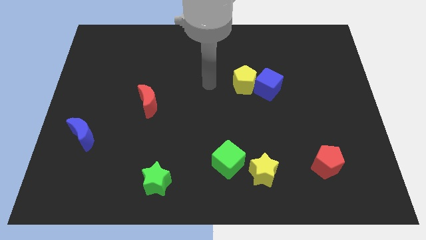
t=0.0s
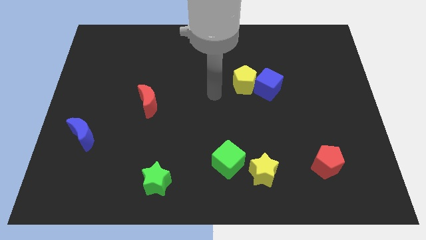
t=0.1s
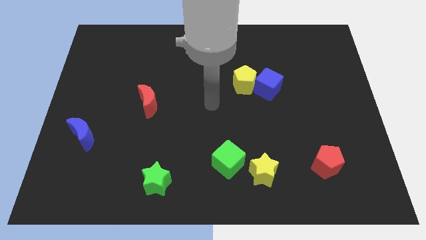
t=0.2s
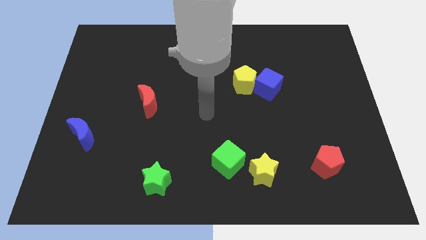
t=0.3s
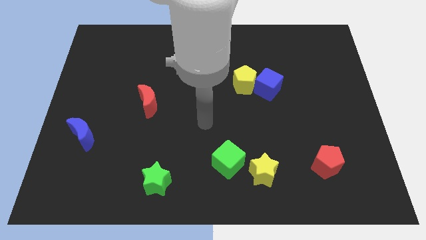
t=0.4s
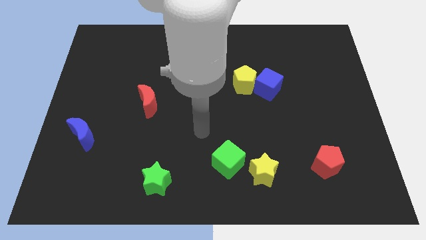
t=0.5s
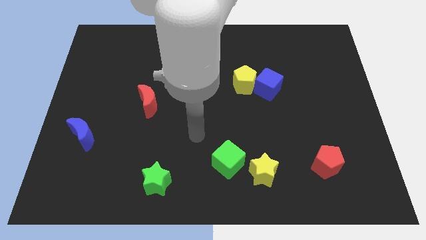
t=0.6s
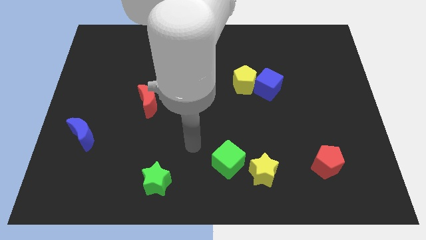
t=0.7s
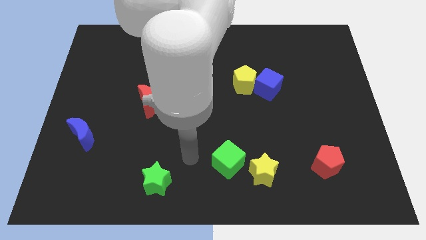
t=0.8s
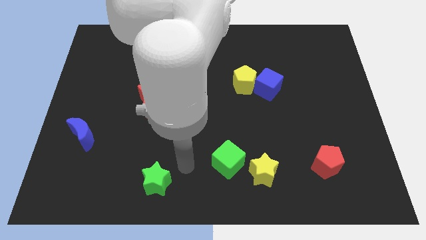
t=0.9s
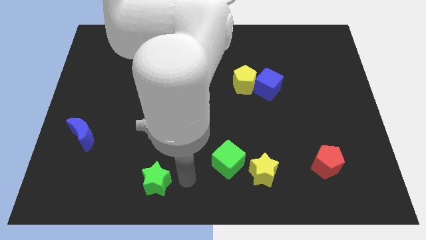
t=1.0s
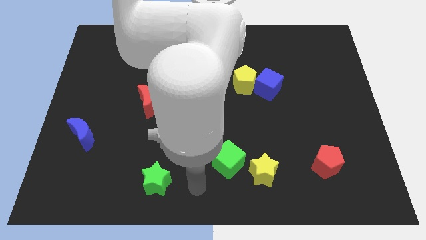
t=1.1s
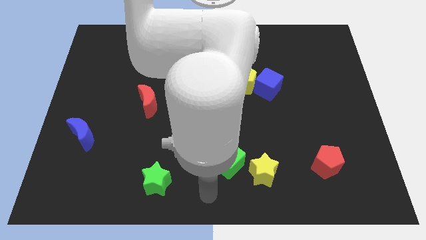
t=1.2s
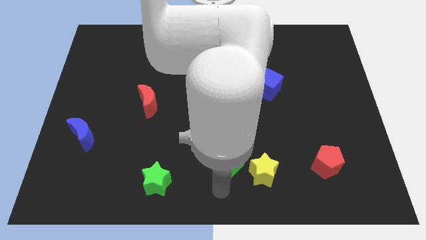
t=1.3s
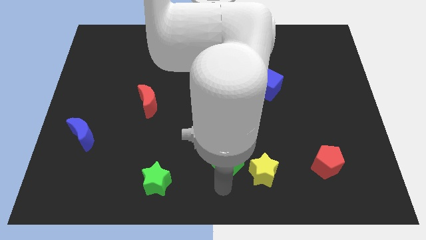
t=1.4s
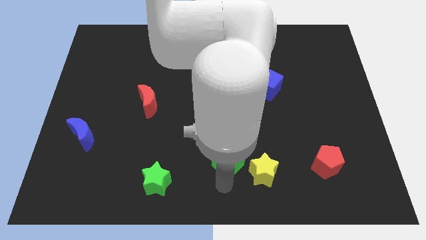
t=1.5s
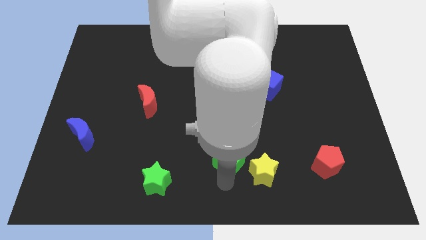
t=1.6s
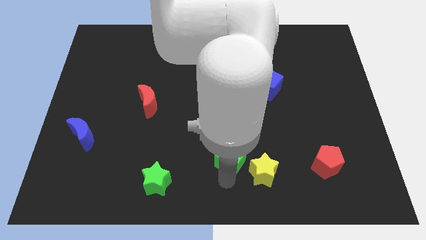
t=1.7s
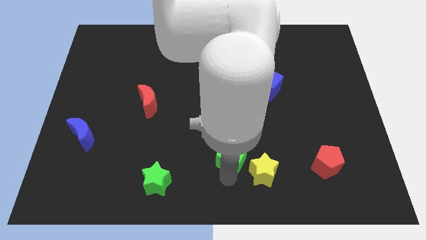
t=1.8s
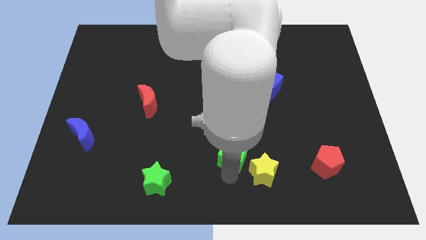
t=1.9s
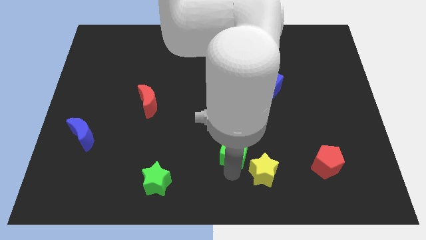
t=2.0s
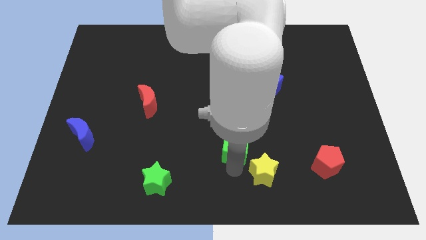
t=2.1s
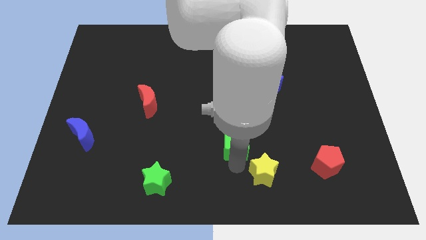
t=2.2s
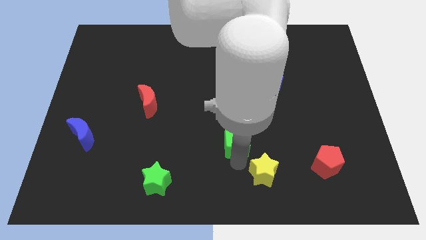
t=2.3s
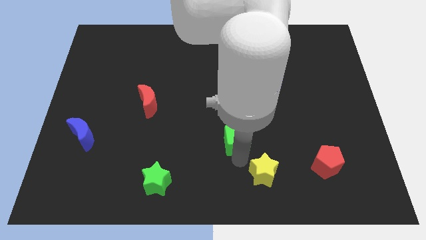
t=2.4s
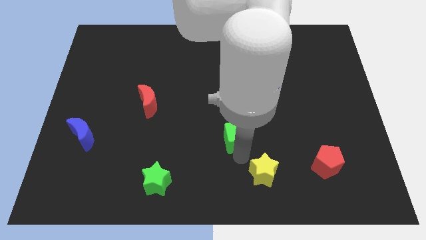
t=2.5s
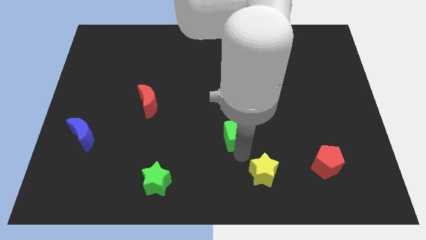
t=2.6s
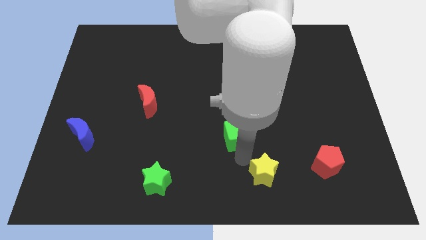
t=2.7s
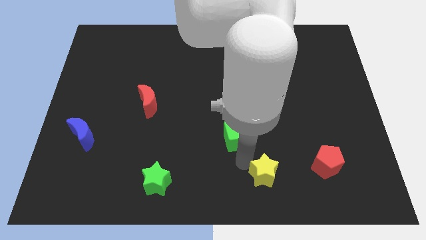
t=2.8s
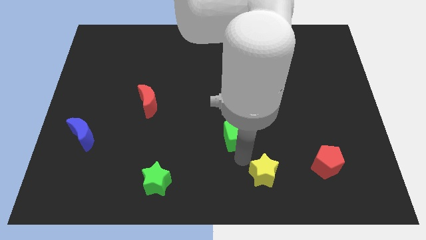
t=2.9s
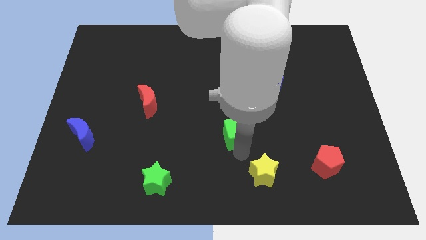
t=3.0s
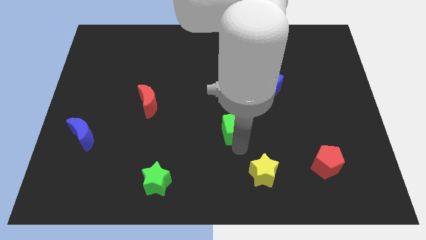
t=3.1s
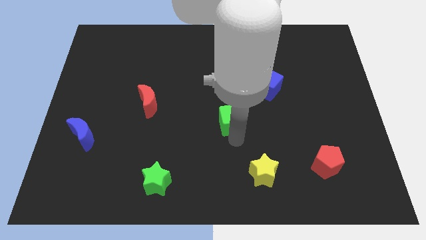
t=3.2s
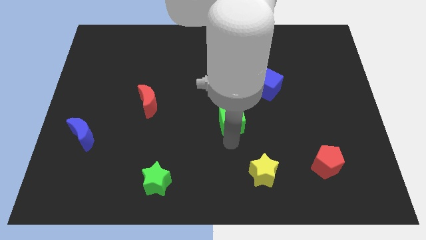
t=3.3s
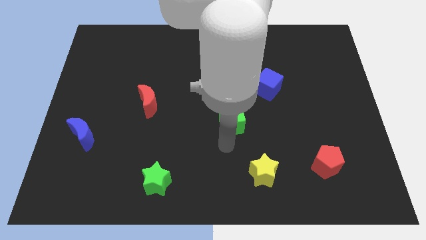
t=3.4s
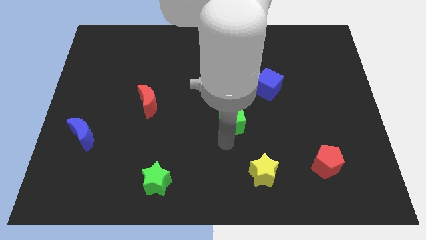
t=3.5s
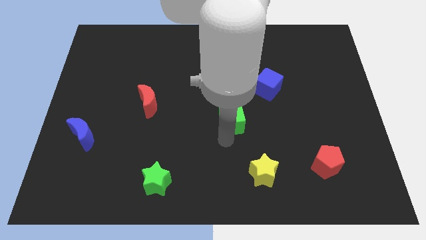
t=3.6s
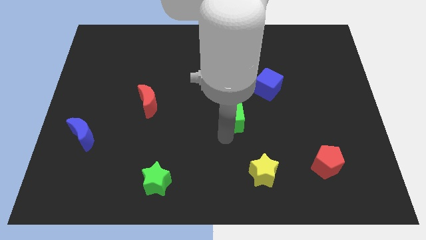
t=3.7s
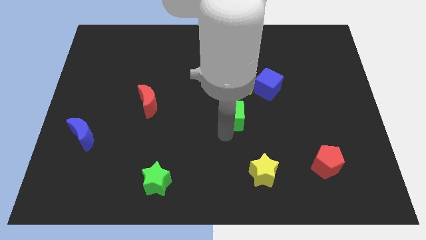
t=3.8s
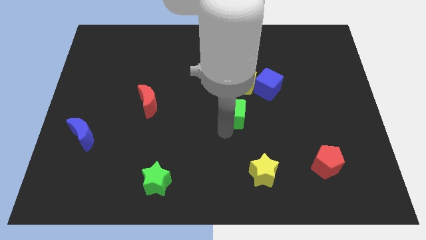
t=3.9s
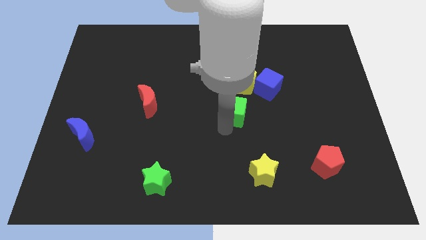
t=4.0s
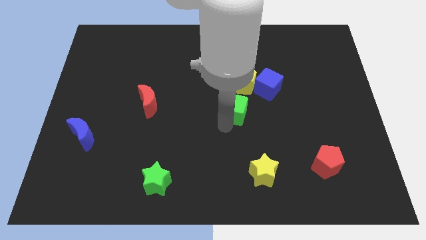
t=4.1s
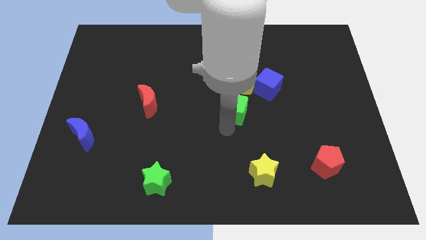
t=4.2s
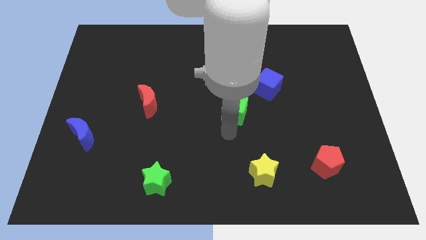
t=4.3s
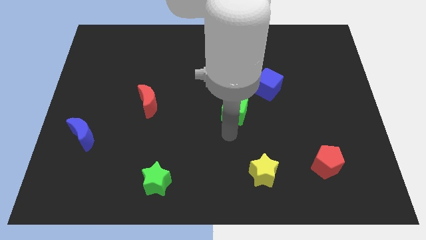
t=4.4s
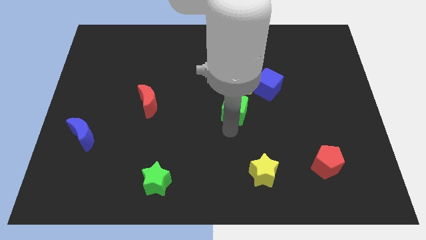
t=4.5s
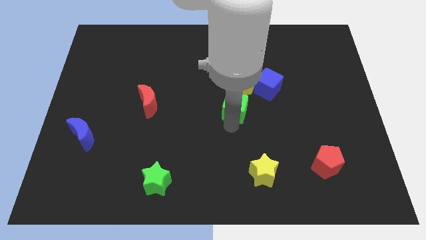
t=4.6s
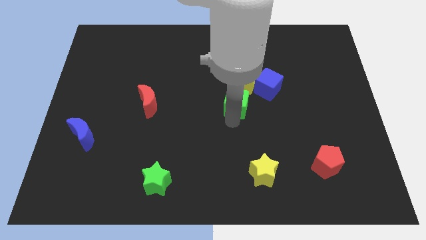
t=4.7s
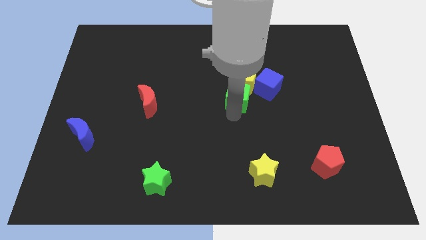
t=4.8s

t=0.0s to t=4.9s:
slide the green cube to the yellow pentagon

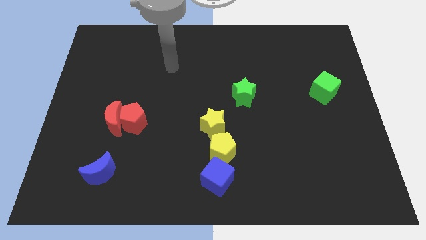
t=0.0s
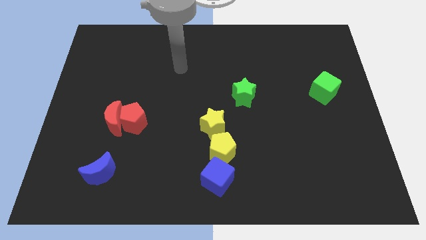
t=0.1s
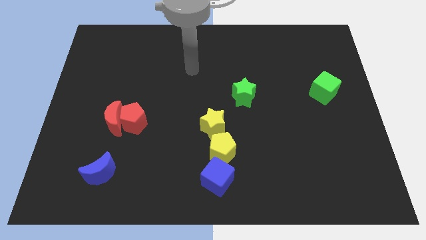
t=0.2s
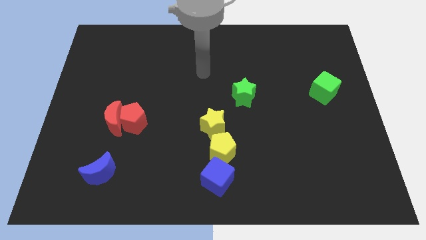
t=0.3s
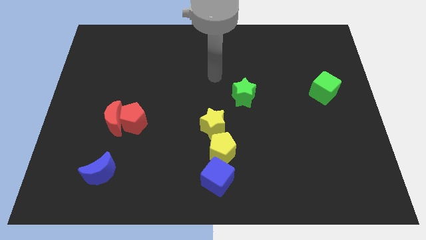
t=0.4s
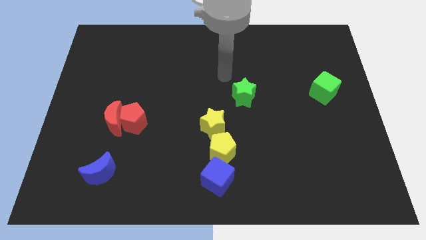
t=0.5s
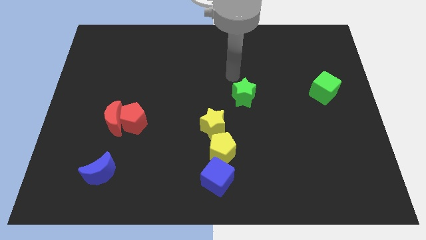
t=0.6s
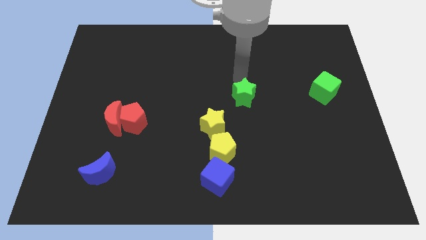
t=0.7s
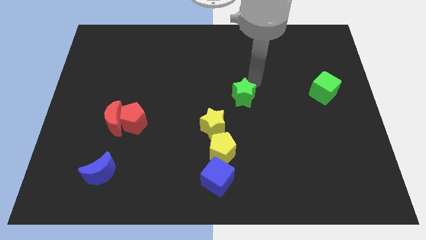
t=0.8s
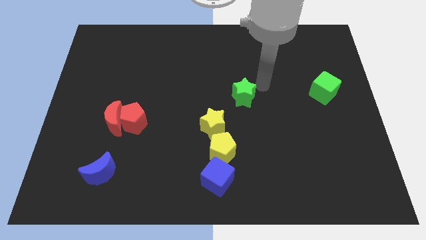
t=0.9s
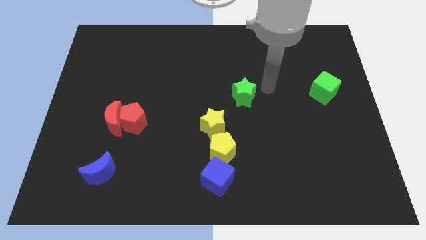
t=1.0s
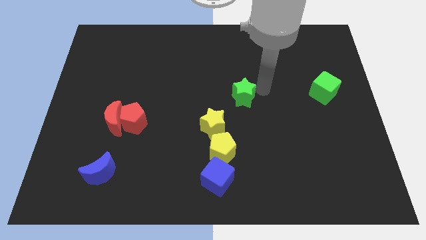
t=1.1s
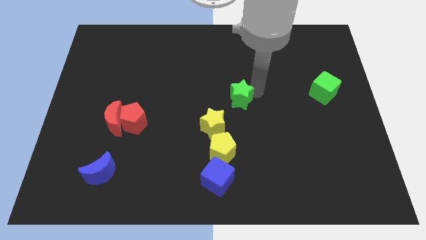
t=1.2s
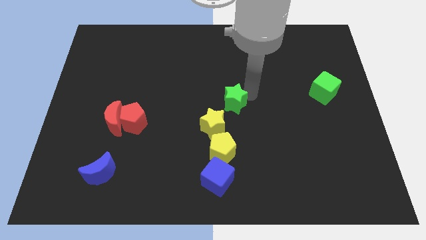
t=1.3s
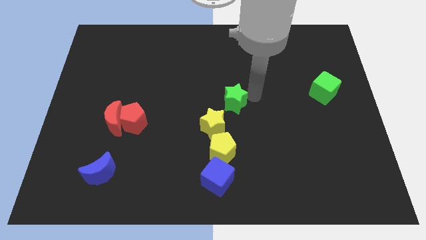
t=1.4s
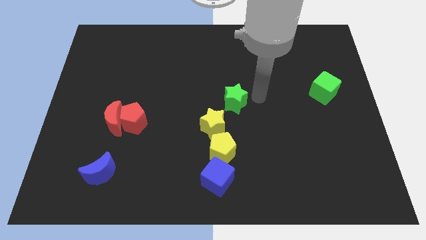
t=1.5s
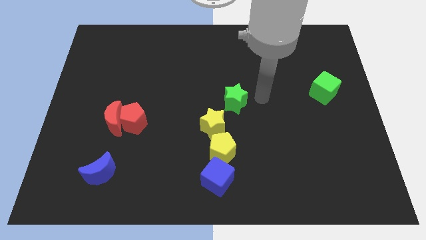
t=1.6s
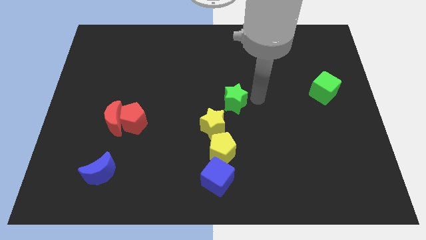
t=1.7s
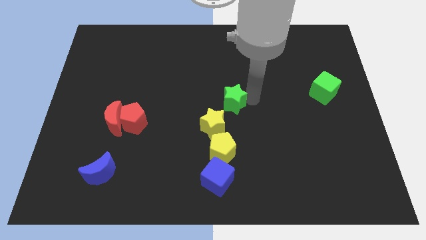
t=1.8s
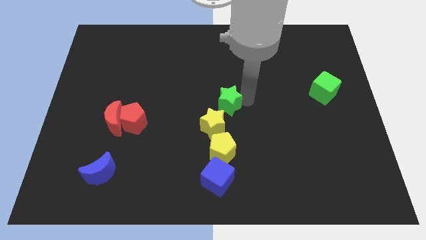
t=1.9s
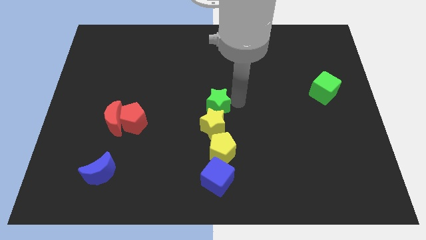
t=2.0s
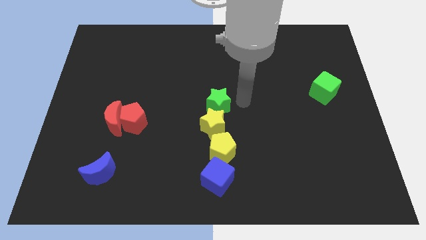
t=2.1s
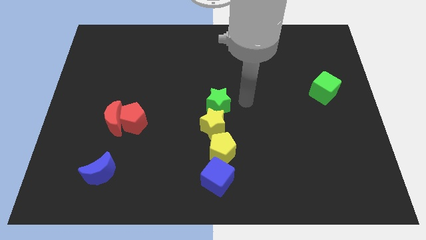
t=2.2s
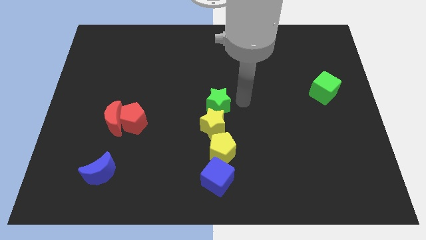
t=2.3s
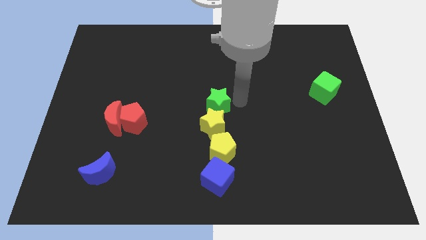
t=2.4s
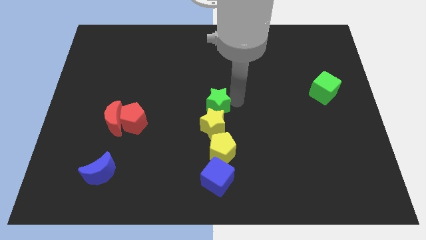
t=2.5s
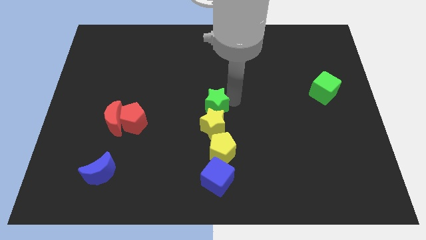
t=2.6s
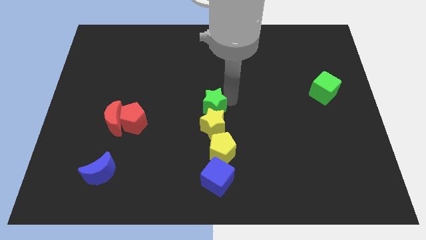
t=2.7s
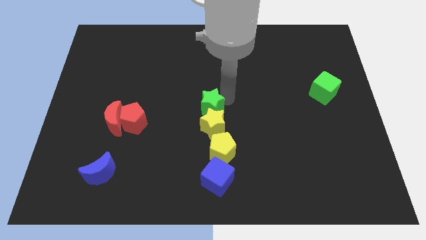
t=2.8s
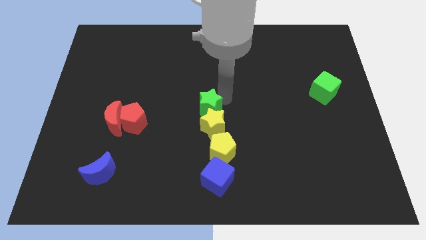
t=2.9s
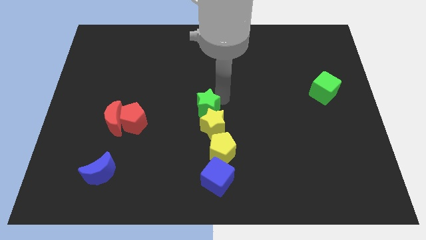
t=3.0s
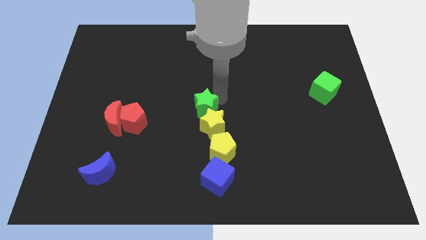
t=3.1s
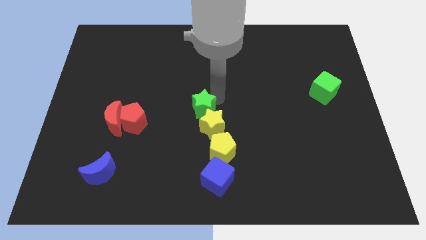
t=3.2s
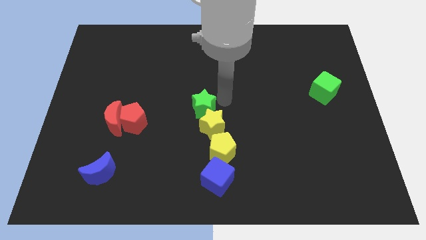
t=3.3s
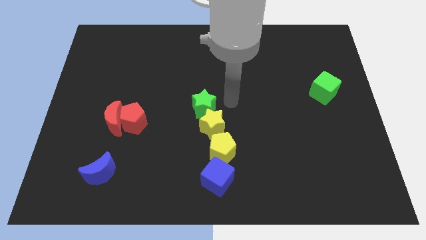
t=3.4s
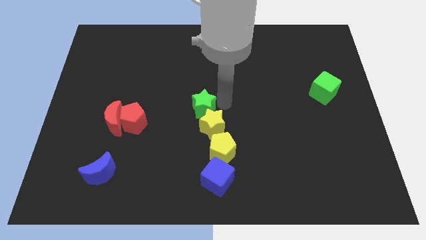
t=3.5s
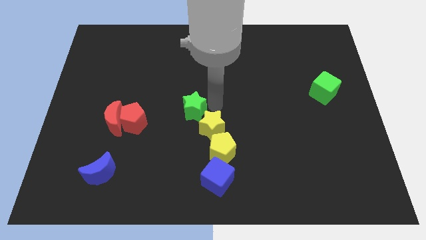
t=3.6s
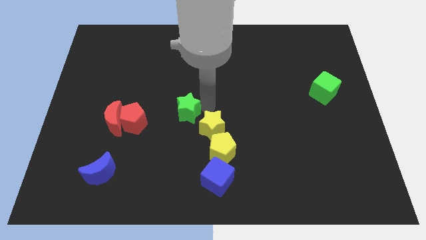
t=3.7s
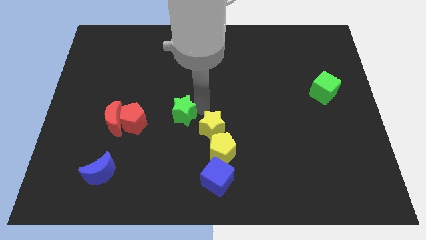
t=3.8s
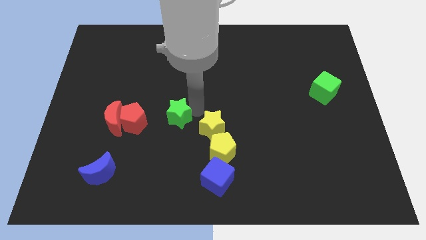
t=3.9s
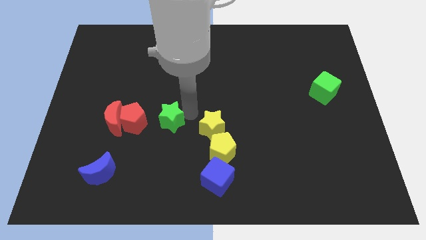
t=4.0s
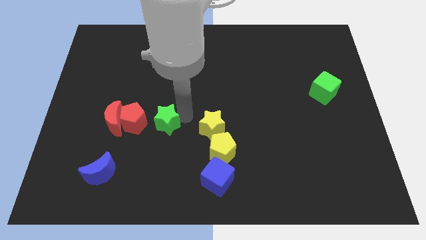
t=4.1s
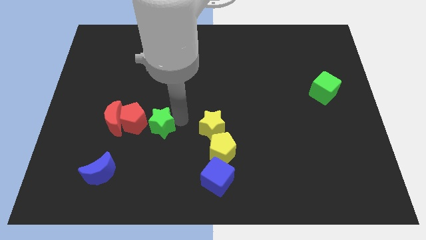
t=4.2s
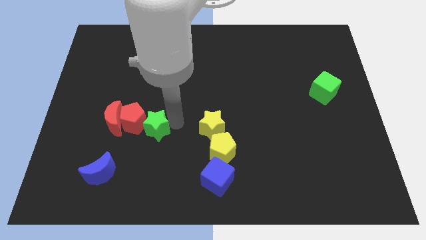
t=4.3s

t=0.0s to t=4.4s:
push the green star close to the red pentagon
